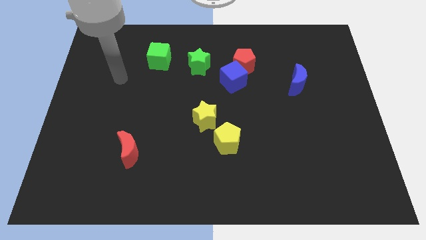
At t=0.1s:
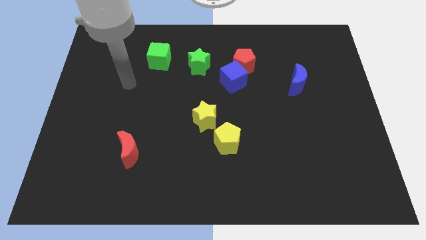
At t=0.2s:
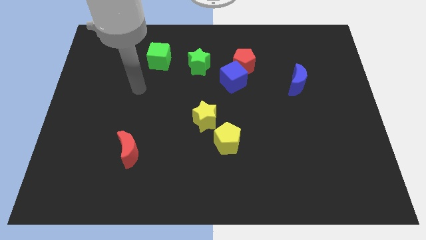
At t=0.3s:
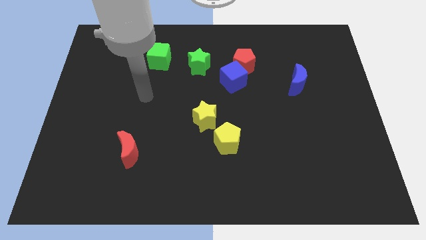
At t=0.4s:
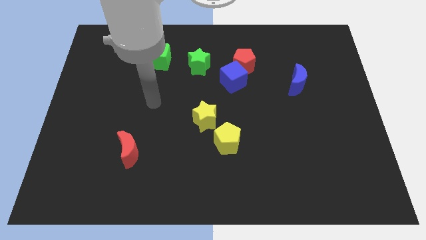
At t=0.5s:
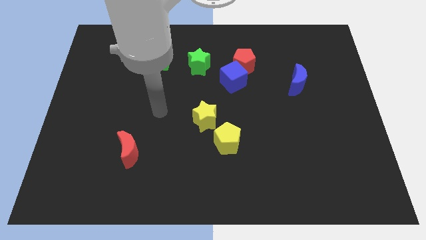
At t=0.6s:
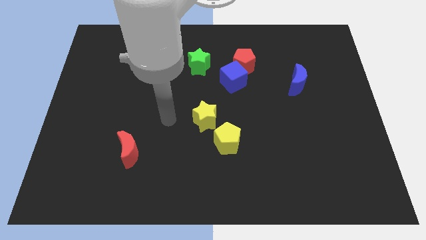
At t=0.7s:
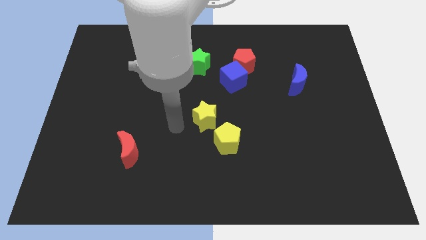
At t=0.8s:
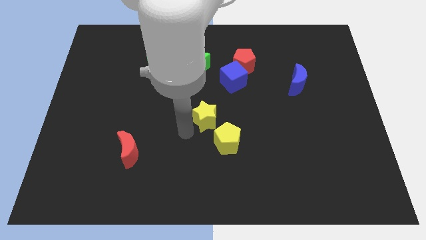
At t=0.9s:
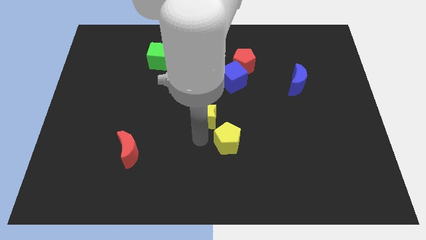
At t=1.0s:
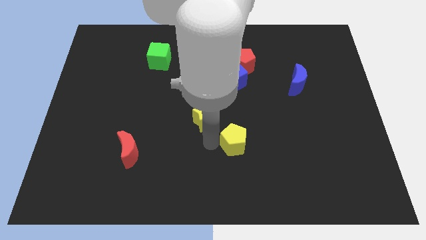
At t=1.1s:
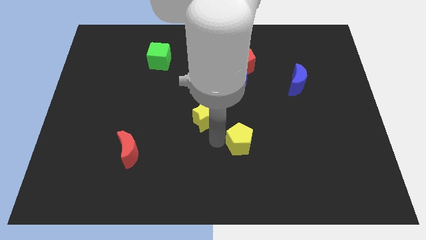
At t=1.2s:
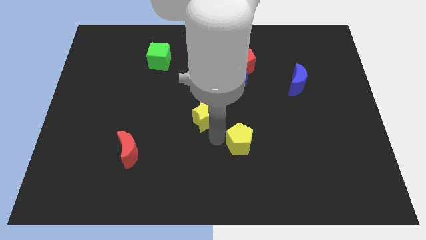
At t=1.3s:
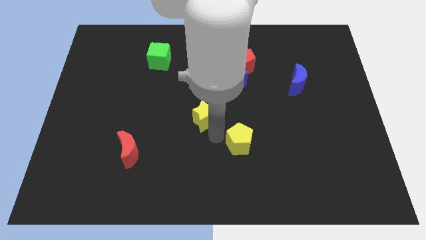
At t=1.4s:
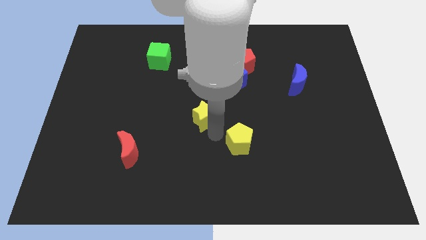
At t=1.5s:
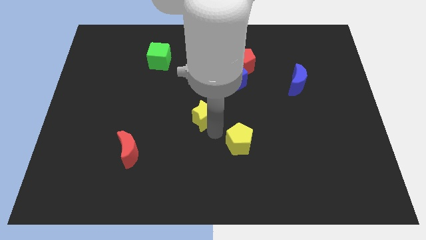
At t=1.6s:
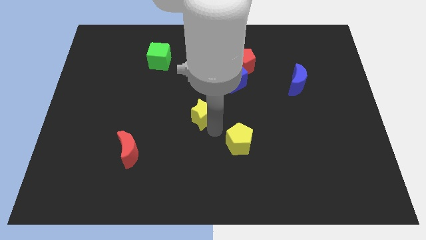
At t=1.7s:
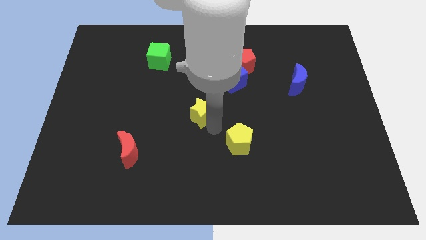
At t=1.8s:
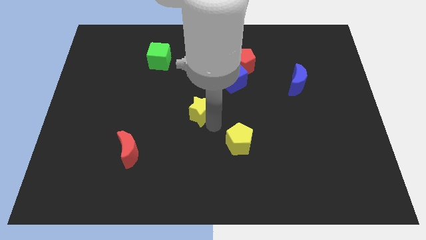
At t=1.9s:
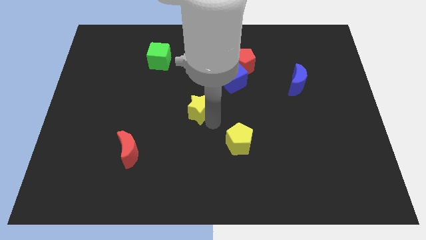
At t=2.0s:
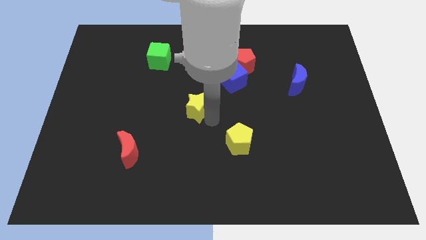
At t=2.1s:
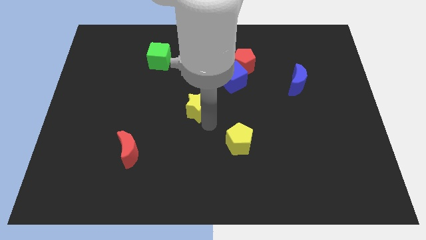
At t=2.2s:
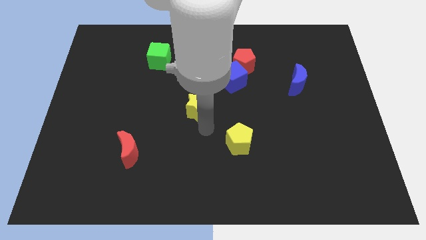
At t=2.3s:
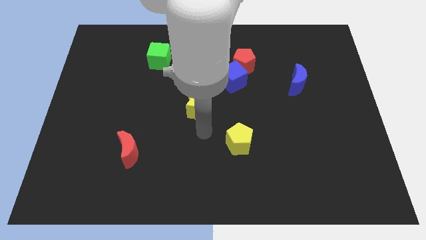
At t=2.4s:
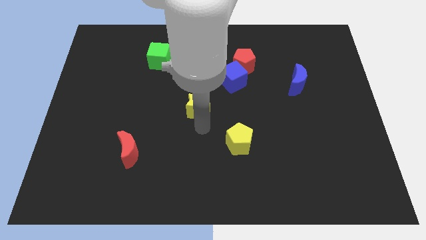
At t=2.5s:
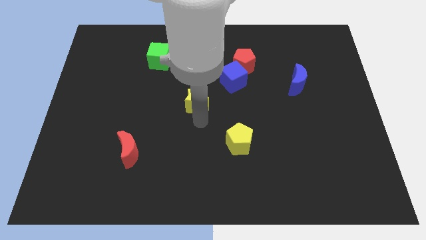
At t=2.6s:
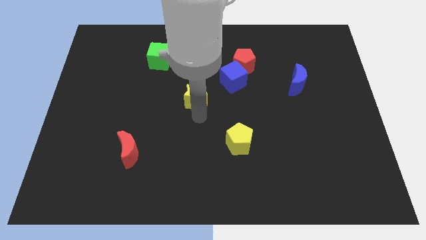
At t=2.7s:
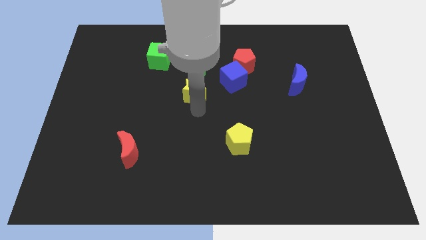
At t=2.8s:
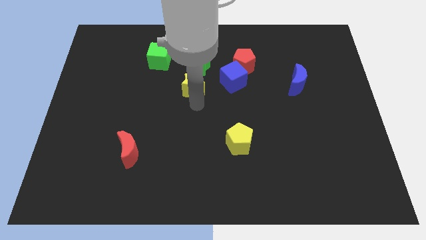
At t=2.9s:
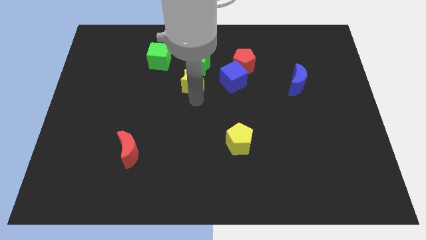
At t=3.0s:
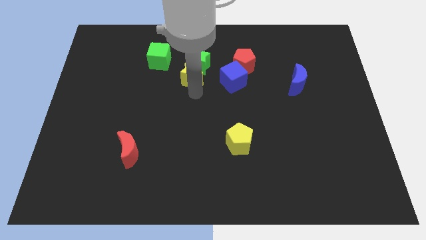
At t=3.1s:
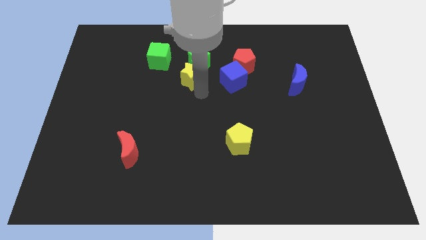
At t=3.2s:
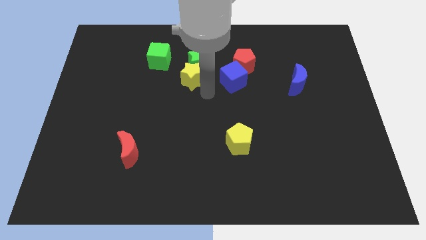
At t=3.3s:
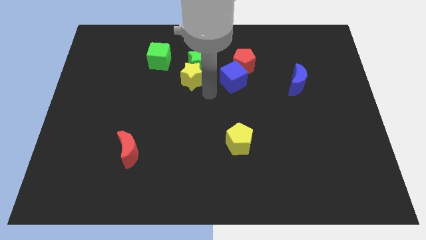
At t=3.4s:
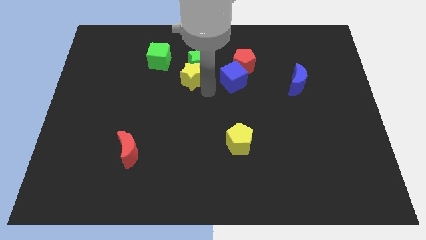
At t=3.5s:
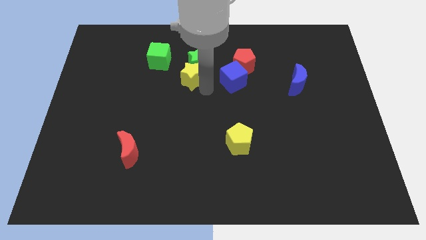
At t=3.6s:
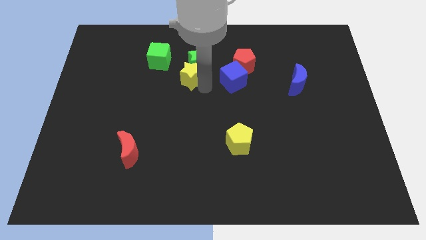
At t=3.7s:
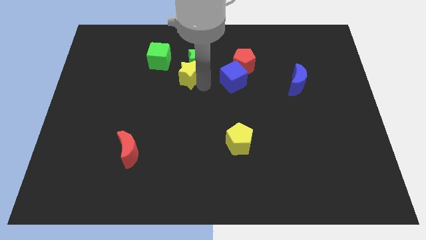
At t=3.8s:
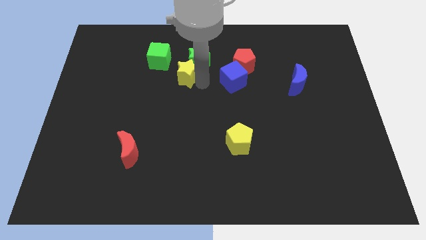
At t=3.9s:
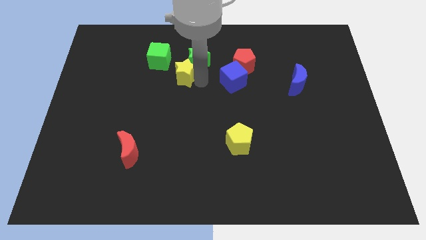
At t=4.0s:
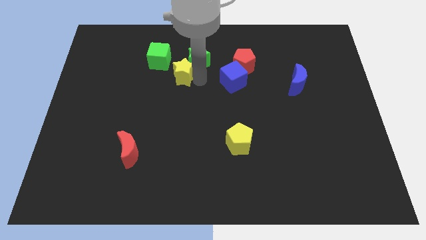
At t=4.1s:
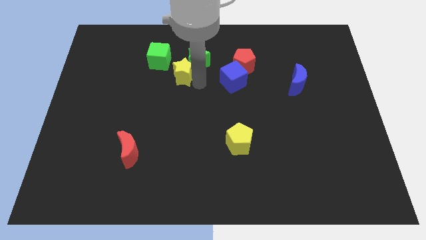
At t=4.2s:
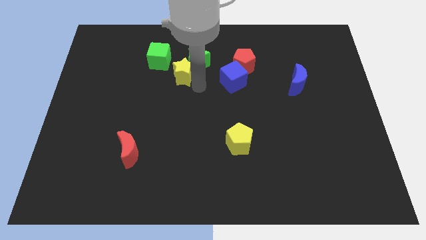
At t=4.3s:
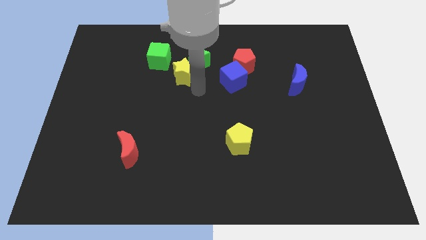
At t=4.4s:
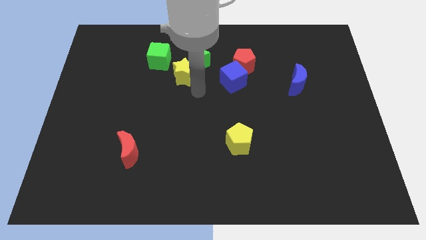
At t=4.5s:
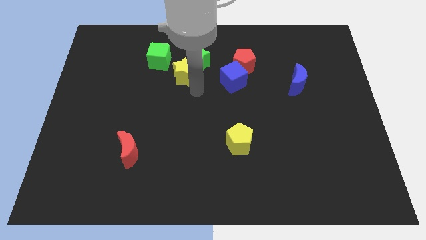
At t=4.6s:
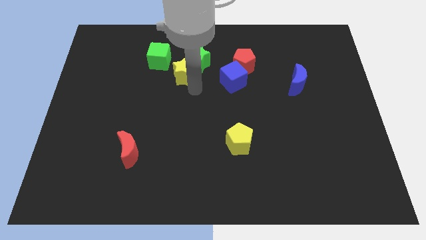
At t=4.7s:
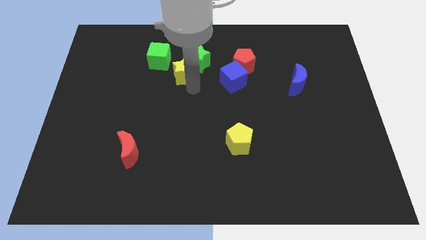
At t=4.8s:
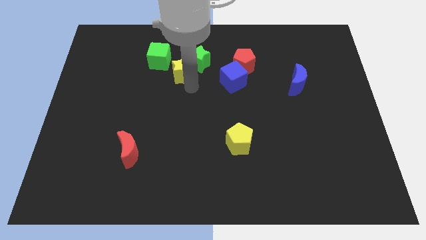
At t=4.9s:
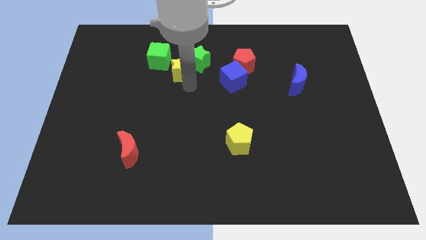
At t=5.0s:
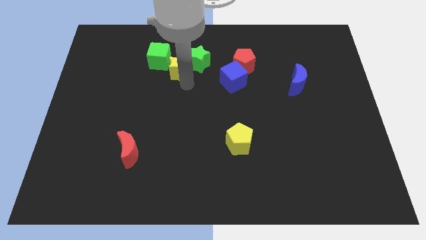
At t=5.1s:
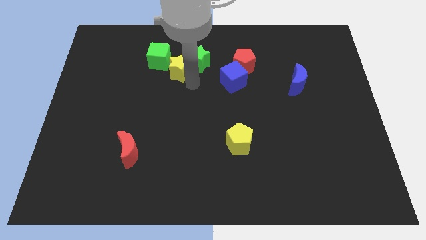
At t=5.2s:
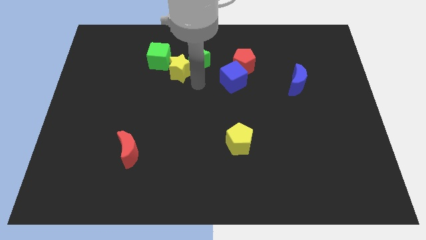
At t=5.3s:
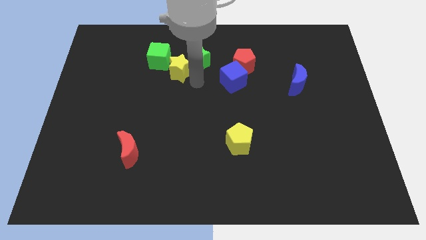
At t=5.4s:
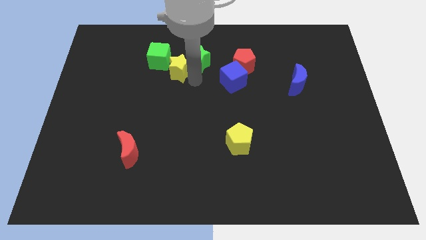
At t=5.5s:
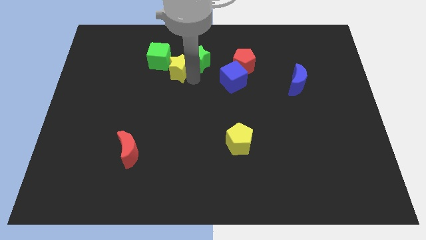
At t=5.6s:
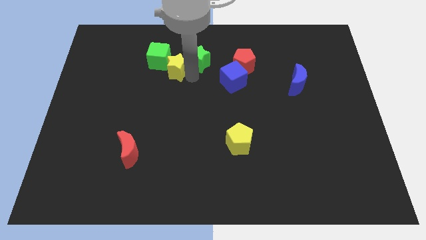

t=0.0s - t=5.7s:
move the yellow star to the green cube

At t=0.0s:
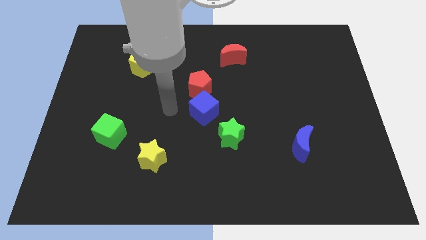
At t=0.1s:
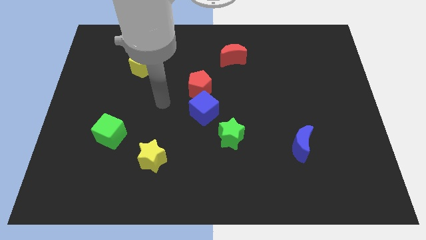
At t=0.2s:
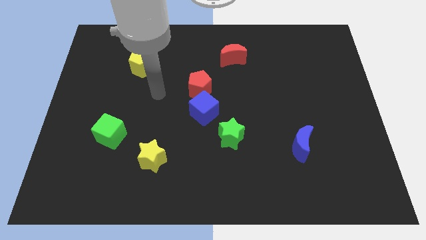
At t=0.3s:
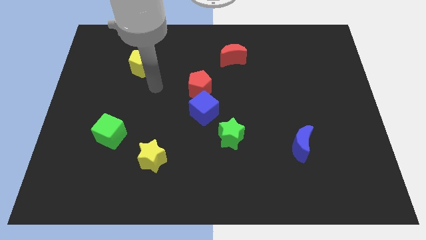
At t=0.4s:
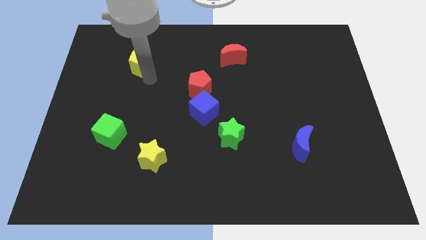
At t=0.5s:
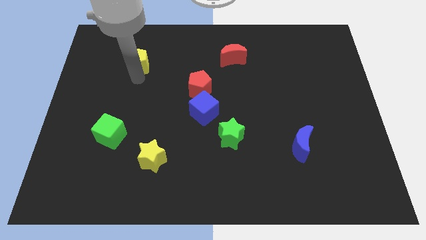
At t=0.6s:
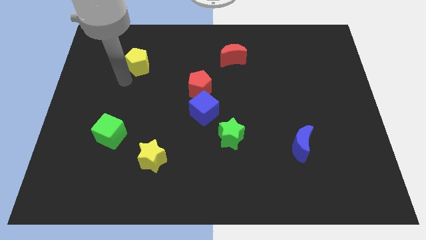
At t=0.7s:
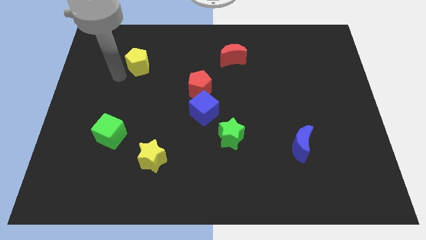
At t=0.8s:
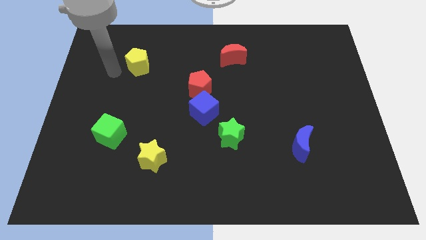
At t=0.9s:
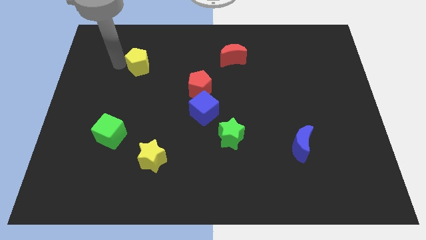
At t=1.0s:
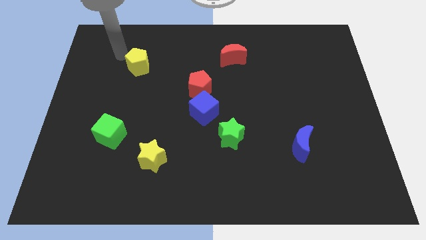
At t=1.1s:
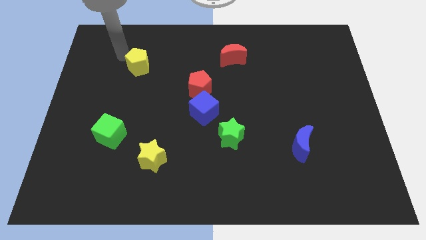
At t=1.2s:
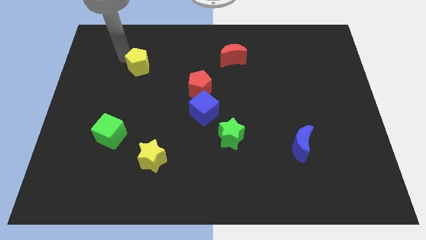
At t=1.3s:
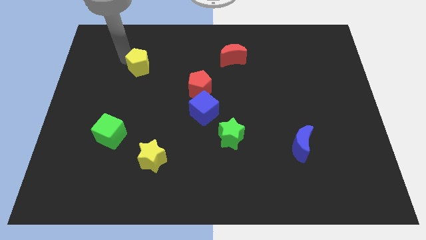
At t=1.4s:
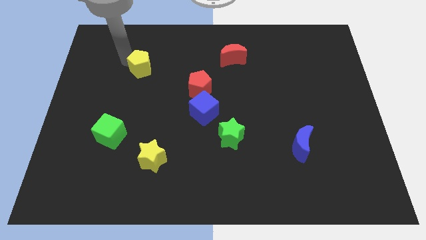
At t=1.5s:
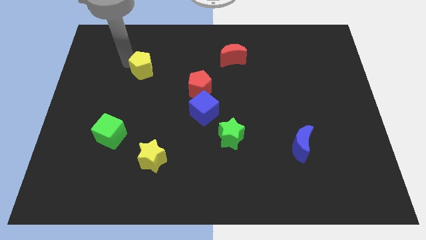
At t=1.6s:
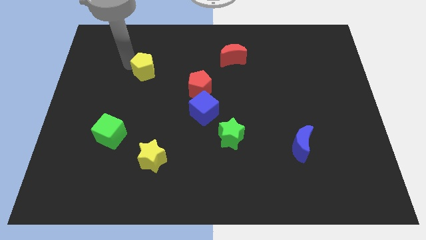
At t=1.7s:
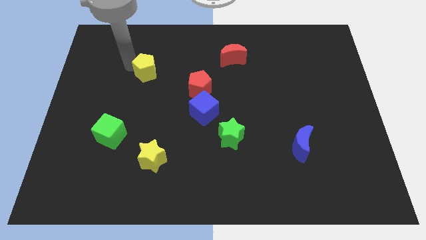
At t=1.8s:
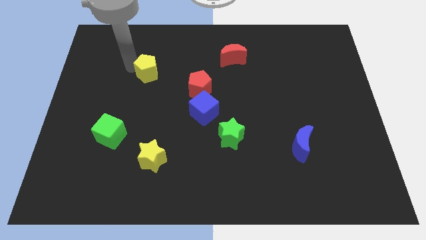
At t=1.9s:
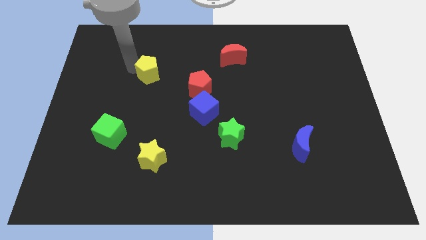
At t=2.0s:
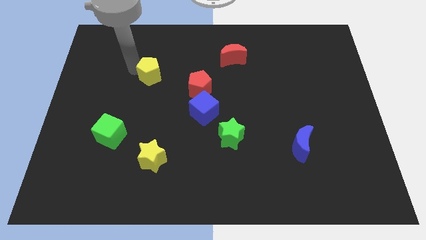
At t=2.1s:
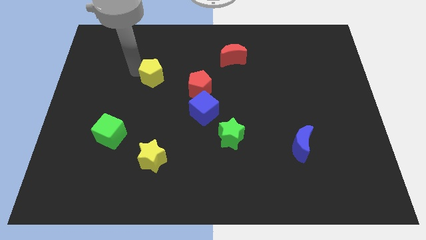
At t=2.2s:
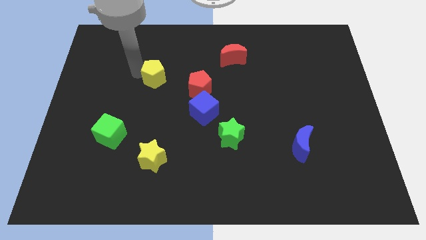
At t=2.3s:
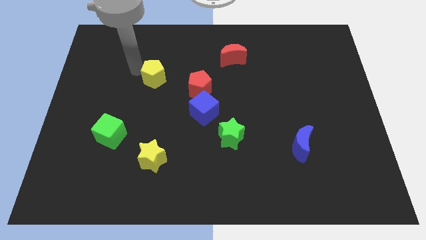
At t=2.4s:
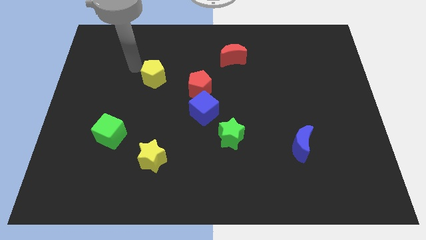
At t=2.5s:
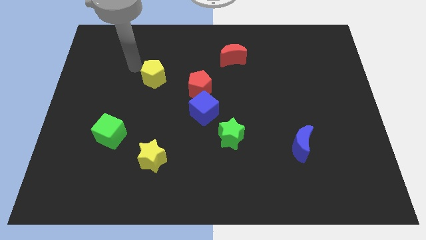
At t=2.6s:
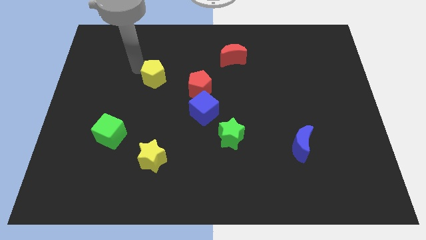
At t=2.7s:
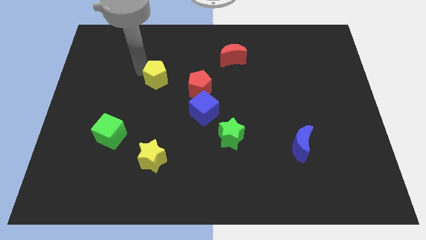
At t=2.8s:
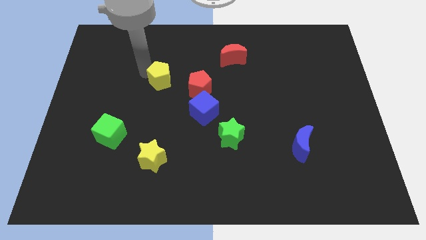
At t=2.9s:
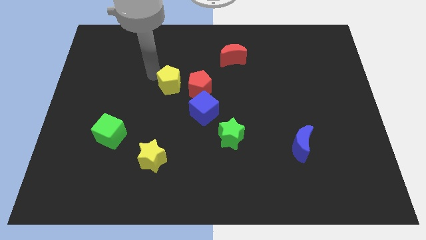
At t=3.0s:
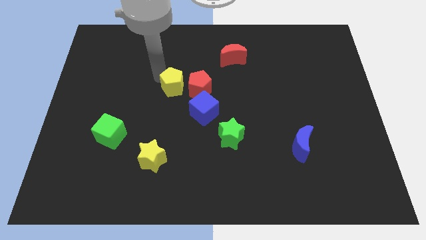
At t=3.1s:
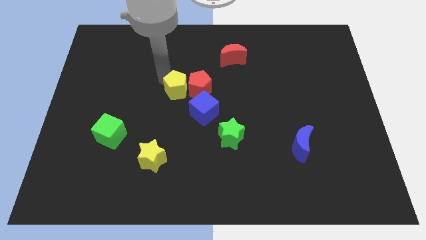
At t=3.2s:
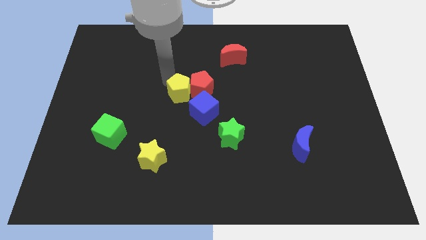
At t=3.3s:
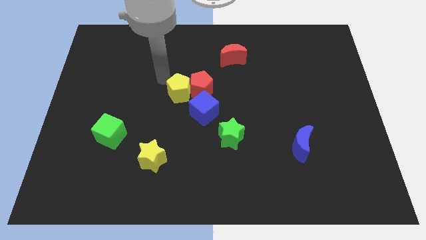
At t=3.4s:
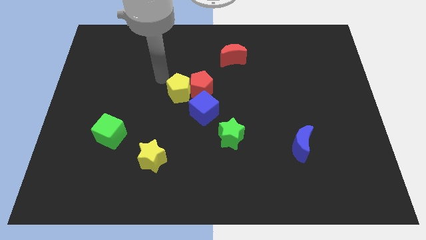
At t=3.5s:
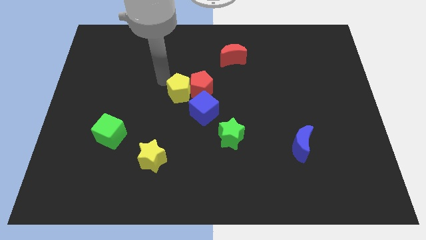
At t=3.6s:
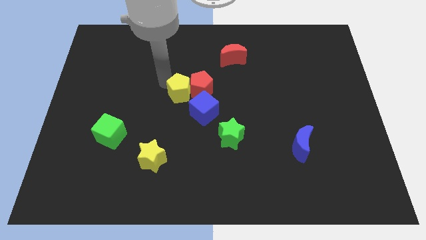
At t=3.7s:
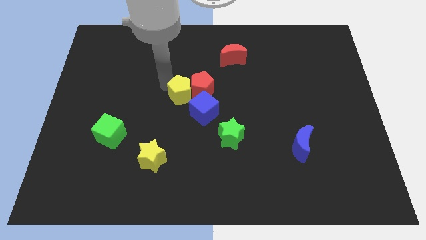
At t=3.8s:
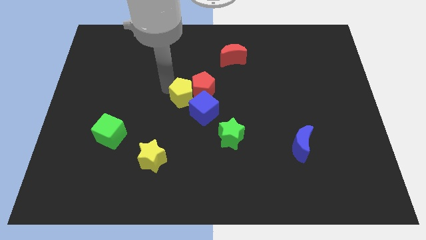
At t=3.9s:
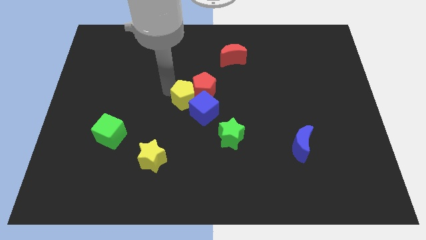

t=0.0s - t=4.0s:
put the yellow pentagon next to the blue cube
